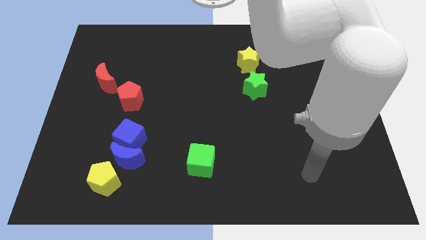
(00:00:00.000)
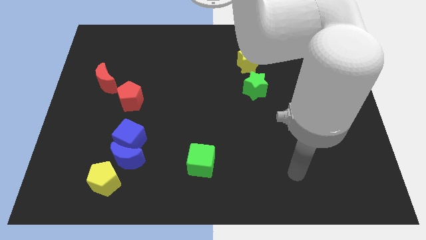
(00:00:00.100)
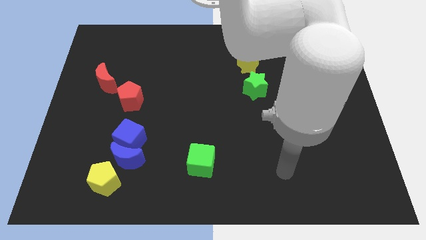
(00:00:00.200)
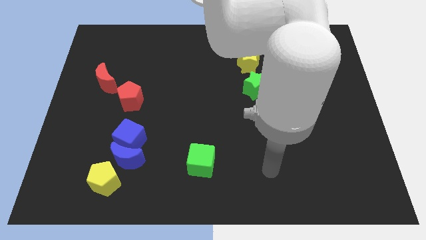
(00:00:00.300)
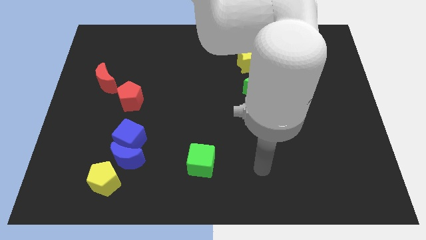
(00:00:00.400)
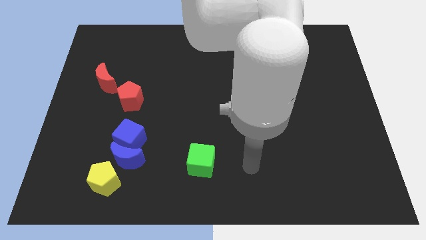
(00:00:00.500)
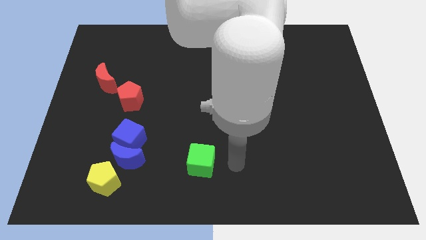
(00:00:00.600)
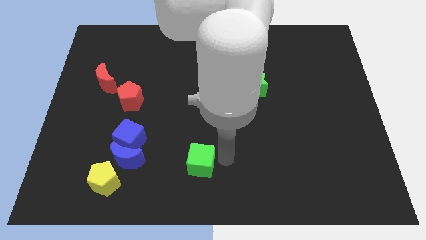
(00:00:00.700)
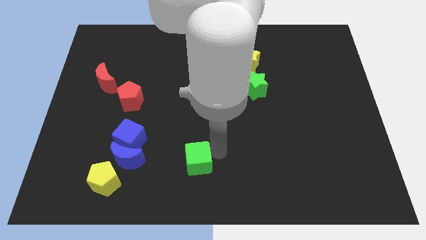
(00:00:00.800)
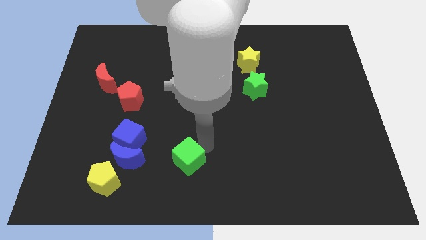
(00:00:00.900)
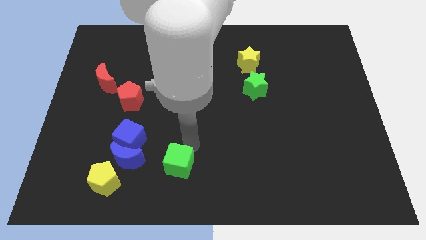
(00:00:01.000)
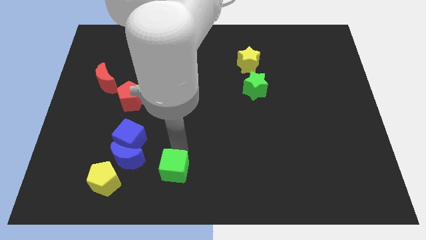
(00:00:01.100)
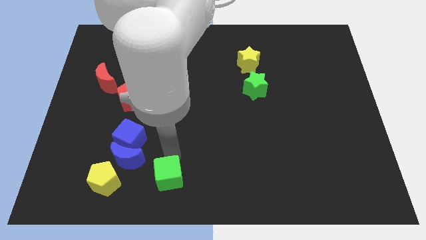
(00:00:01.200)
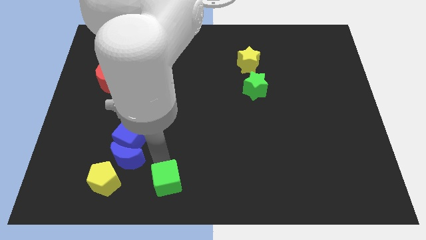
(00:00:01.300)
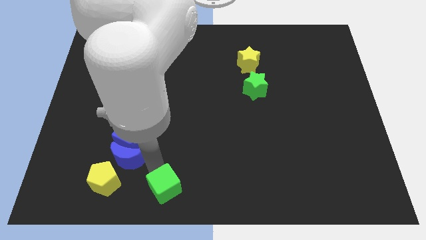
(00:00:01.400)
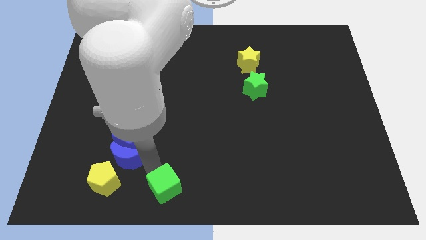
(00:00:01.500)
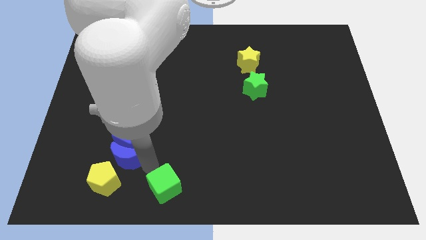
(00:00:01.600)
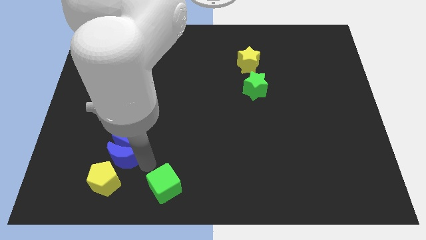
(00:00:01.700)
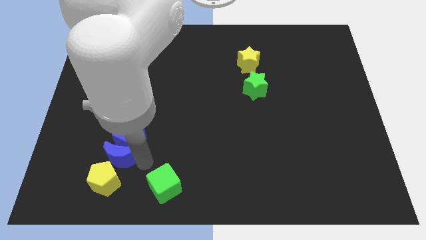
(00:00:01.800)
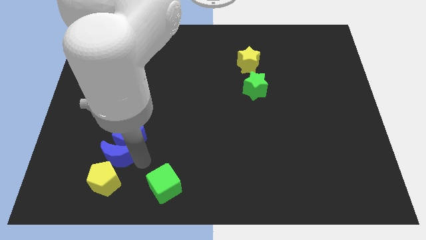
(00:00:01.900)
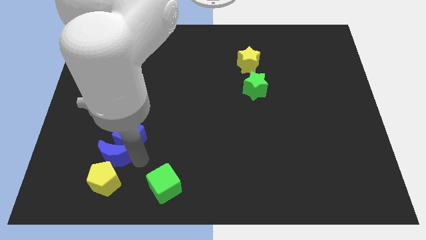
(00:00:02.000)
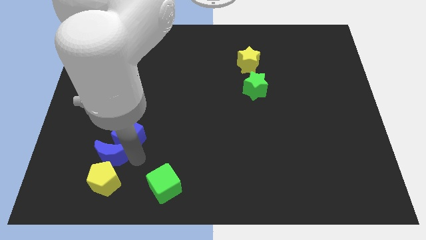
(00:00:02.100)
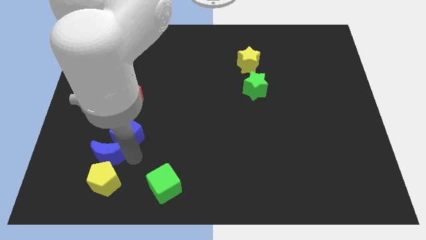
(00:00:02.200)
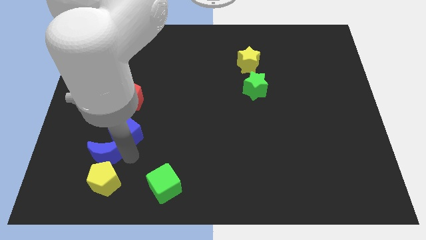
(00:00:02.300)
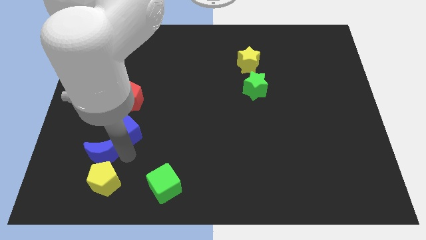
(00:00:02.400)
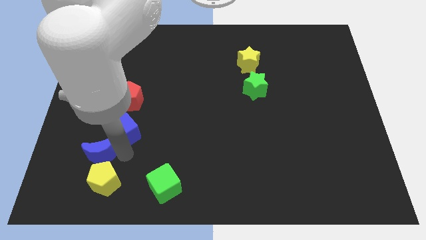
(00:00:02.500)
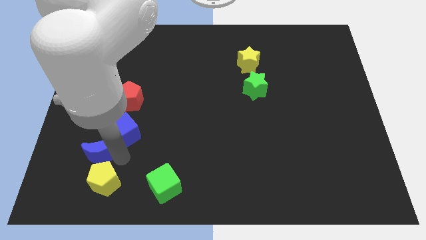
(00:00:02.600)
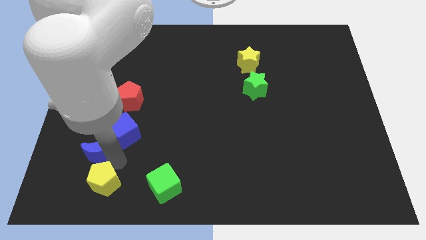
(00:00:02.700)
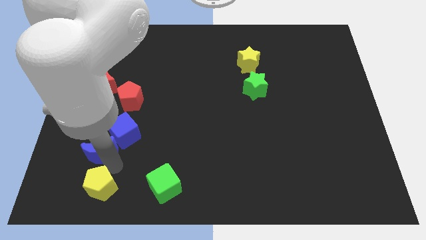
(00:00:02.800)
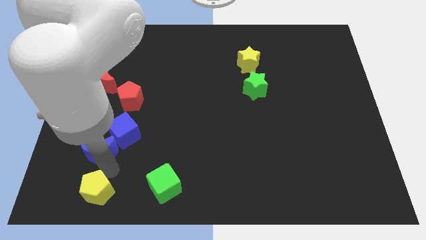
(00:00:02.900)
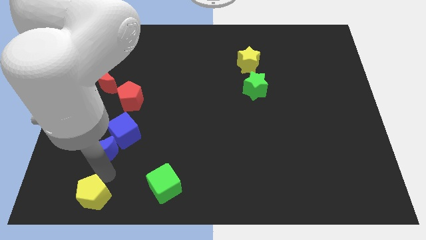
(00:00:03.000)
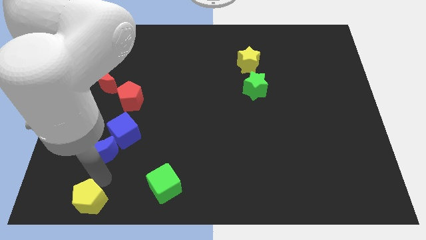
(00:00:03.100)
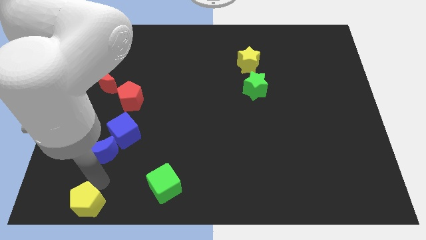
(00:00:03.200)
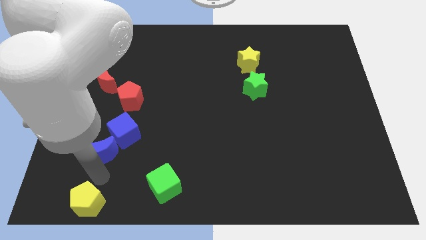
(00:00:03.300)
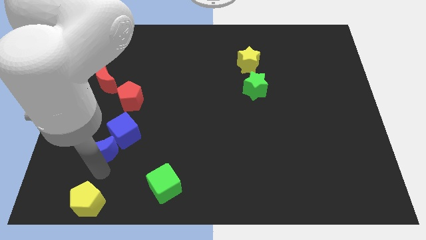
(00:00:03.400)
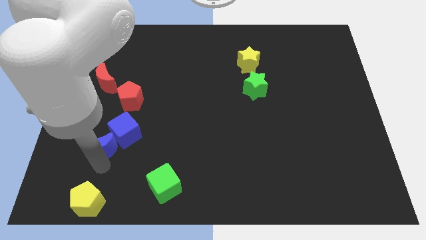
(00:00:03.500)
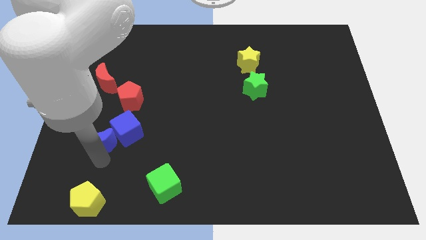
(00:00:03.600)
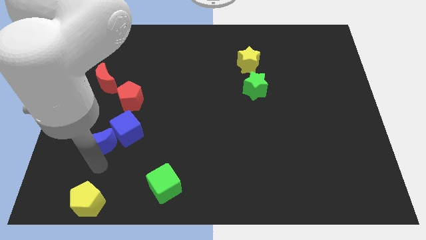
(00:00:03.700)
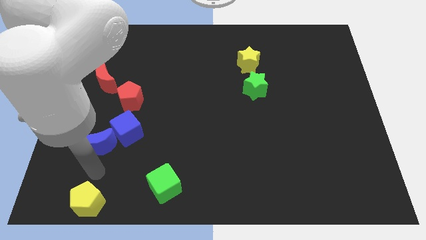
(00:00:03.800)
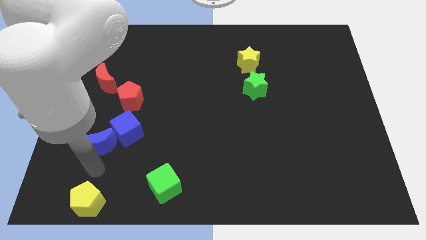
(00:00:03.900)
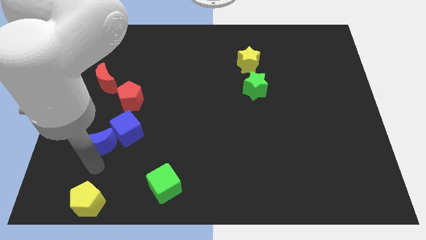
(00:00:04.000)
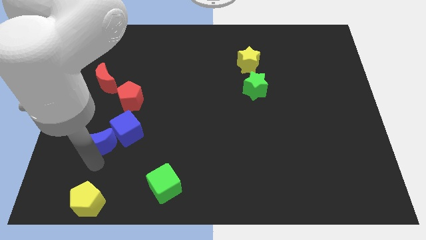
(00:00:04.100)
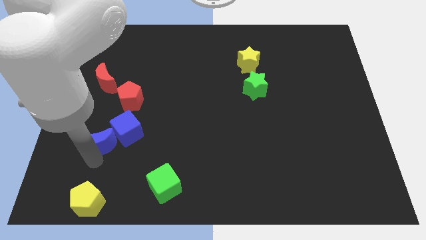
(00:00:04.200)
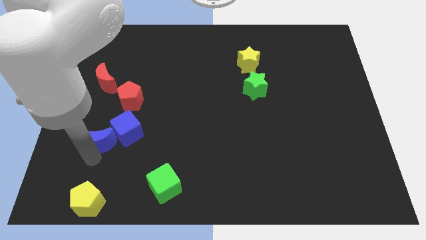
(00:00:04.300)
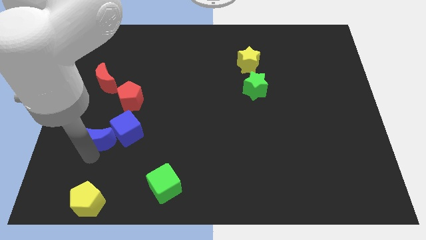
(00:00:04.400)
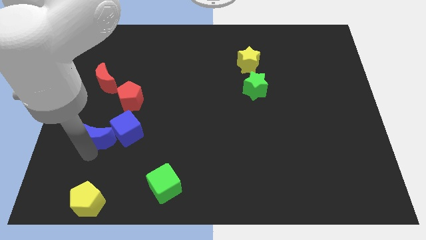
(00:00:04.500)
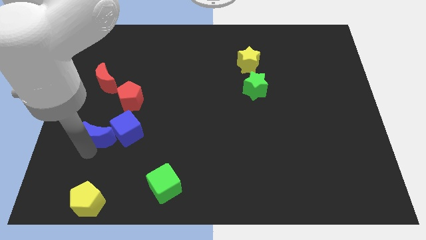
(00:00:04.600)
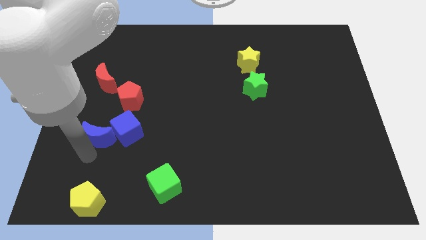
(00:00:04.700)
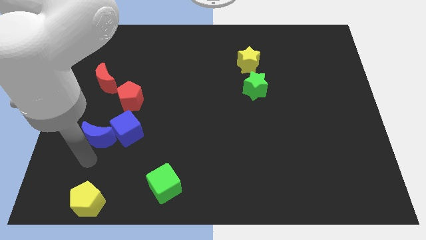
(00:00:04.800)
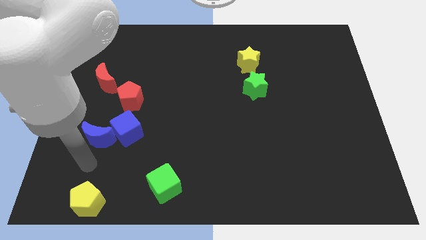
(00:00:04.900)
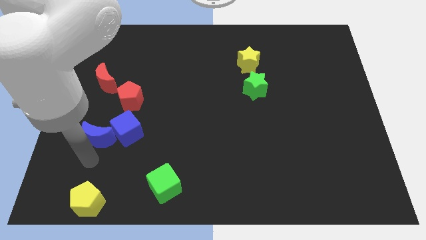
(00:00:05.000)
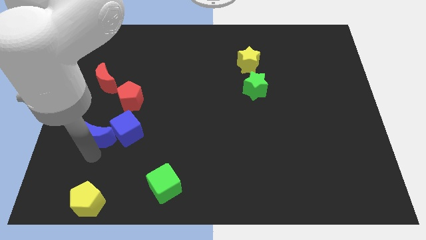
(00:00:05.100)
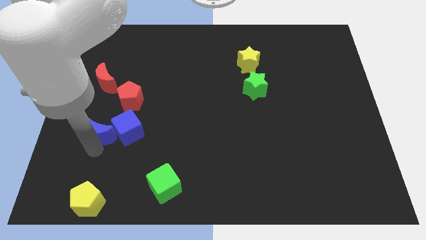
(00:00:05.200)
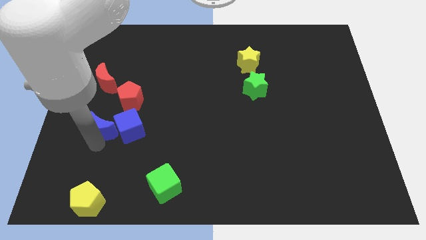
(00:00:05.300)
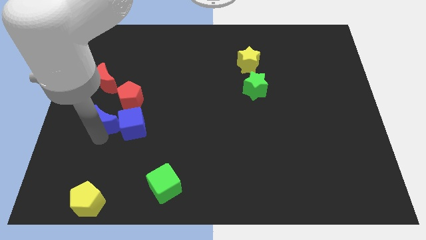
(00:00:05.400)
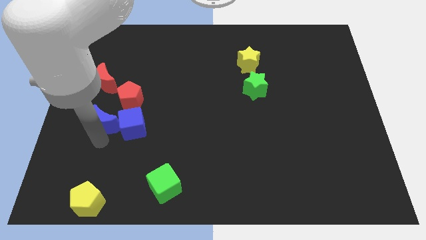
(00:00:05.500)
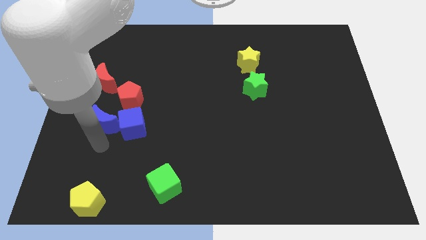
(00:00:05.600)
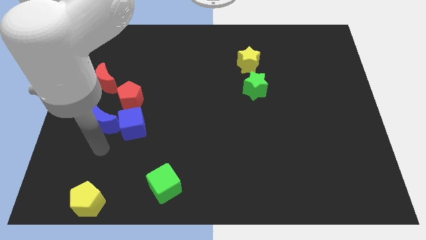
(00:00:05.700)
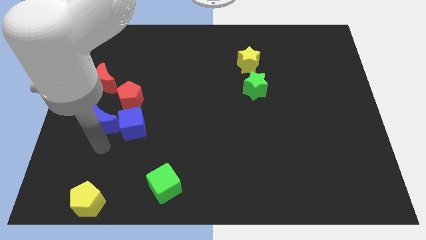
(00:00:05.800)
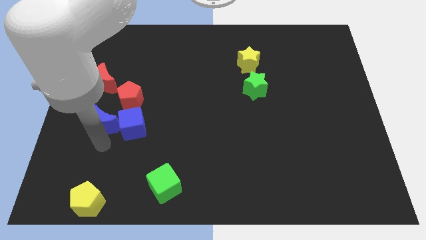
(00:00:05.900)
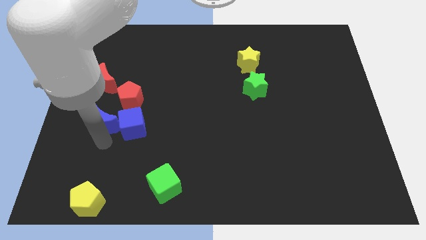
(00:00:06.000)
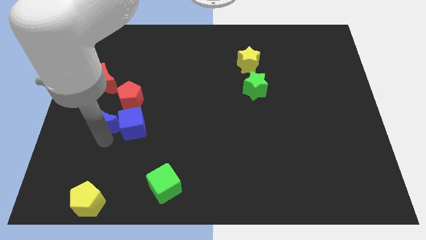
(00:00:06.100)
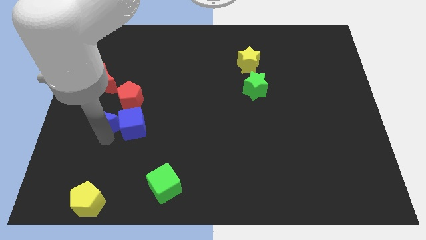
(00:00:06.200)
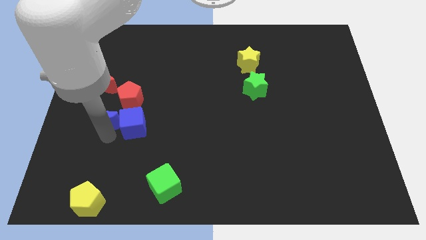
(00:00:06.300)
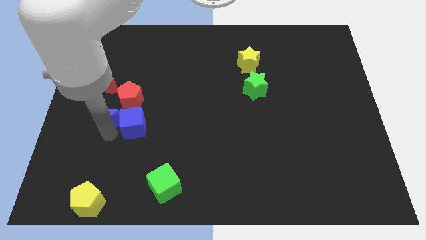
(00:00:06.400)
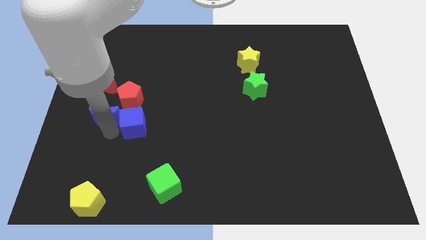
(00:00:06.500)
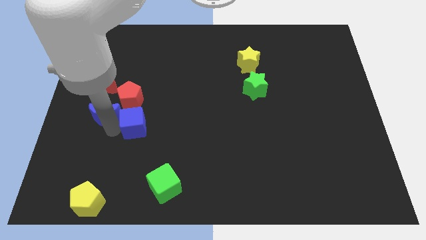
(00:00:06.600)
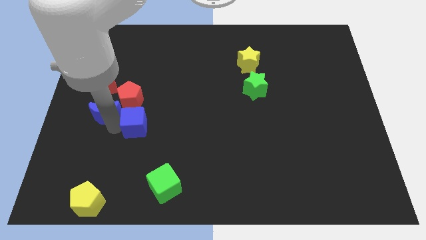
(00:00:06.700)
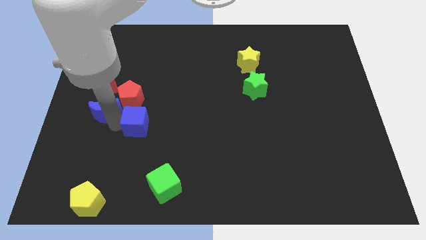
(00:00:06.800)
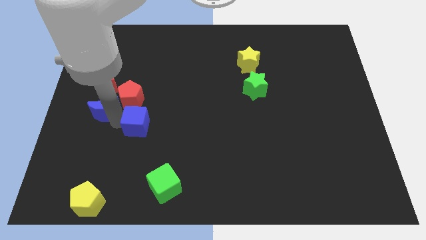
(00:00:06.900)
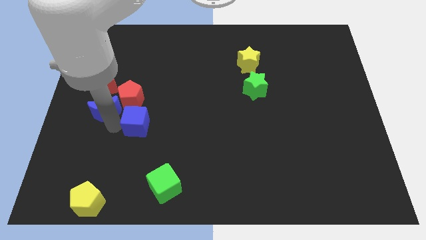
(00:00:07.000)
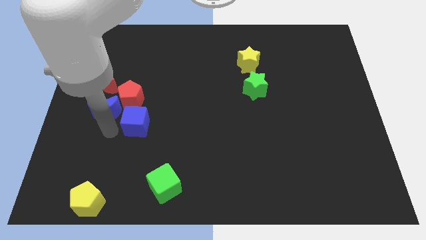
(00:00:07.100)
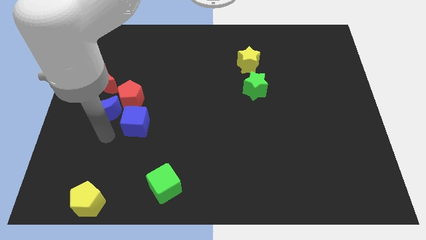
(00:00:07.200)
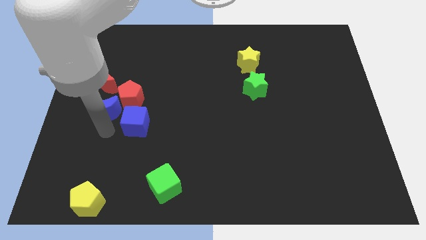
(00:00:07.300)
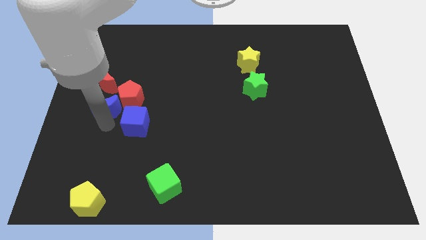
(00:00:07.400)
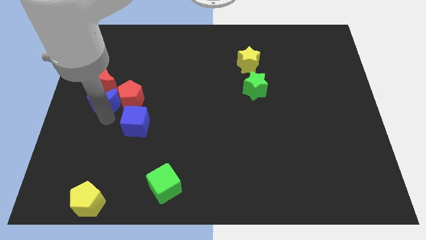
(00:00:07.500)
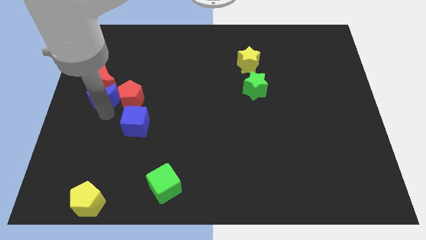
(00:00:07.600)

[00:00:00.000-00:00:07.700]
slide the blue moon close to the red moon
